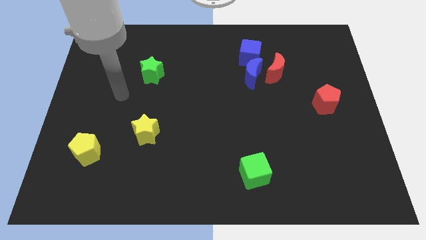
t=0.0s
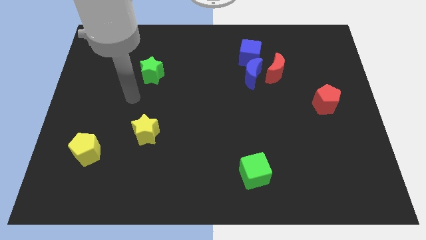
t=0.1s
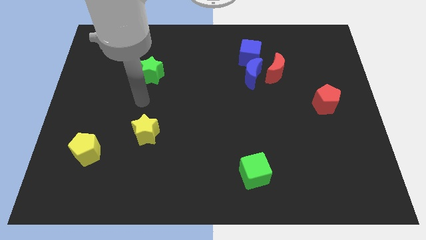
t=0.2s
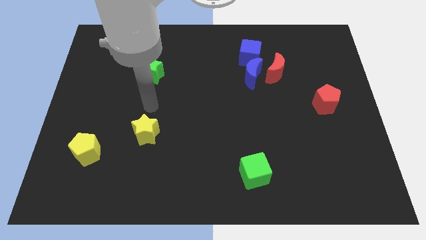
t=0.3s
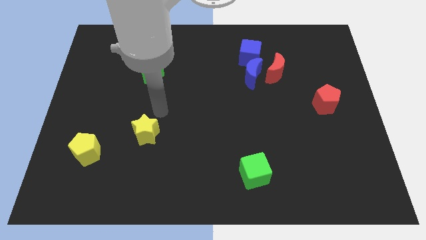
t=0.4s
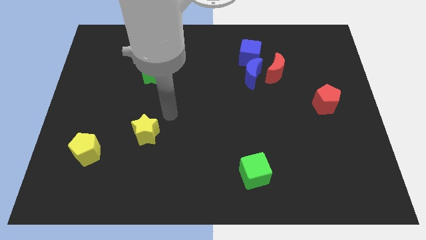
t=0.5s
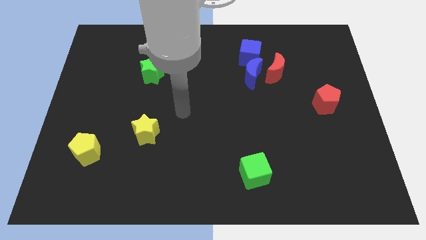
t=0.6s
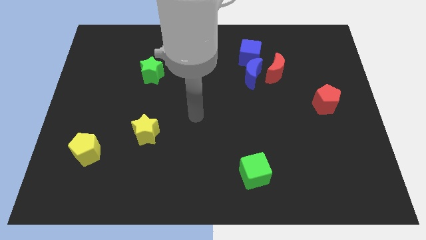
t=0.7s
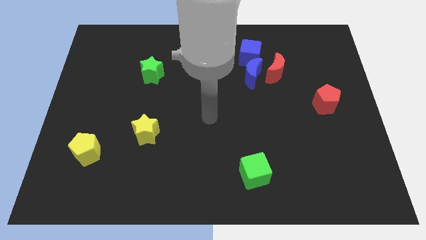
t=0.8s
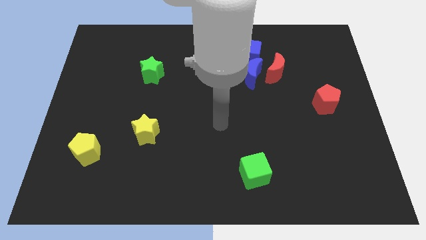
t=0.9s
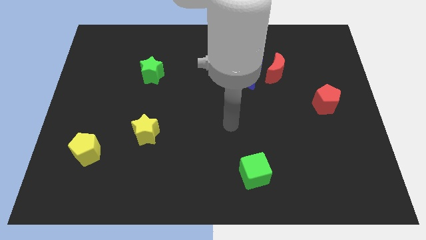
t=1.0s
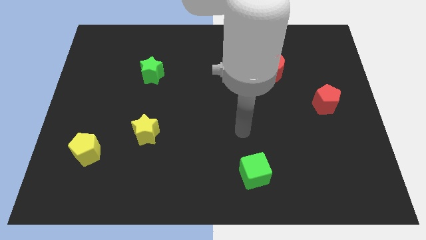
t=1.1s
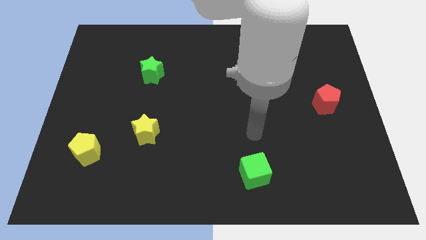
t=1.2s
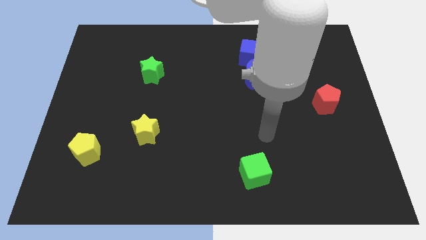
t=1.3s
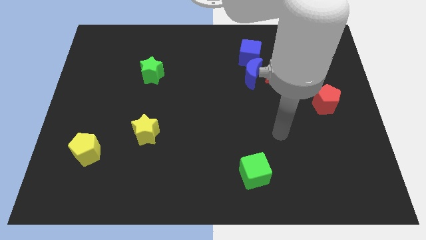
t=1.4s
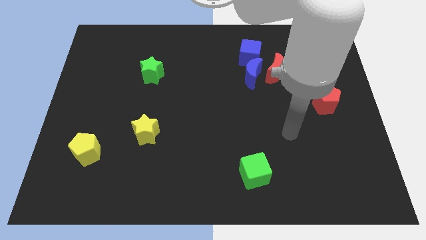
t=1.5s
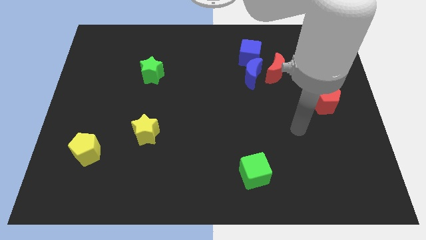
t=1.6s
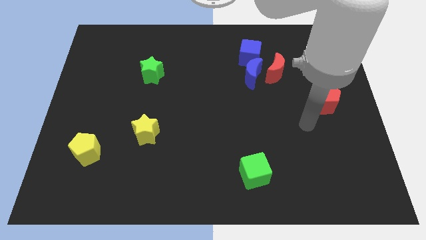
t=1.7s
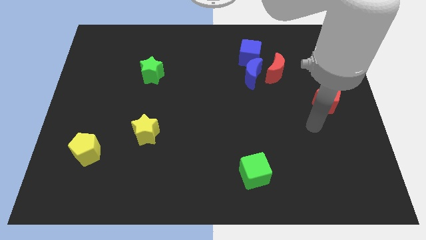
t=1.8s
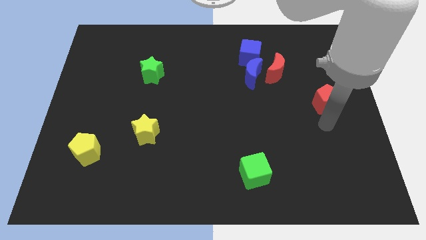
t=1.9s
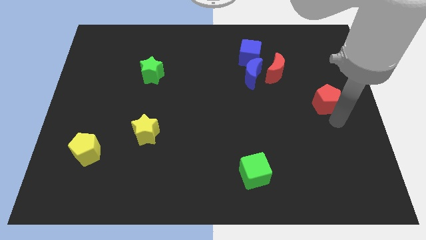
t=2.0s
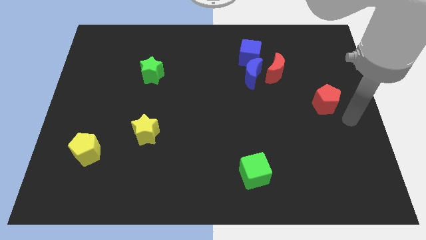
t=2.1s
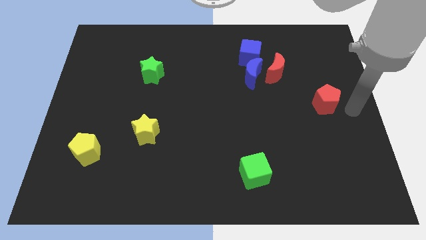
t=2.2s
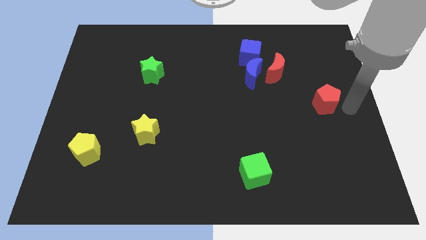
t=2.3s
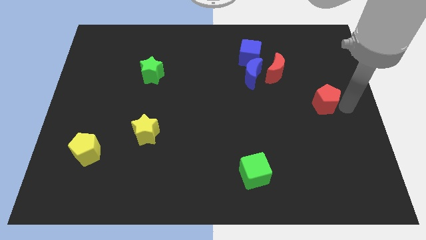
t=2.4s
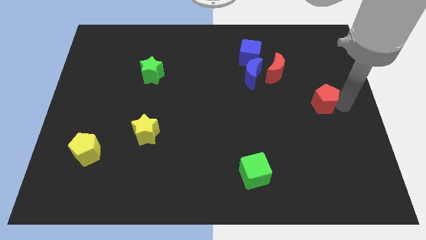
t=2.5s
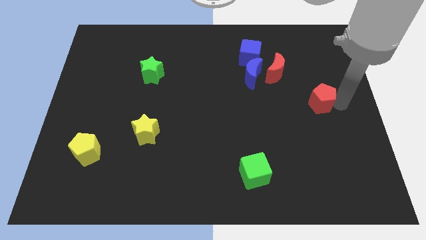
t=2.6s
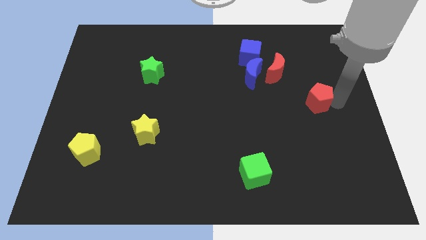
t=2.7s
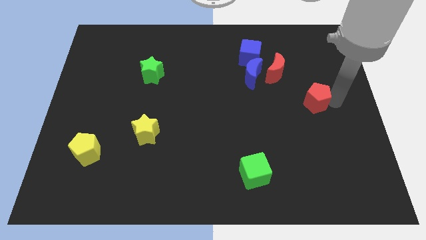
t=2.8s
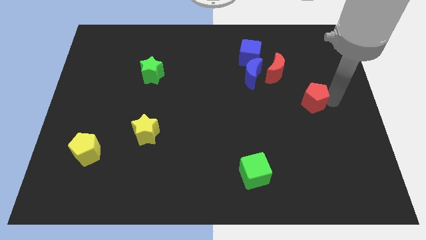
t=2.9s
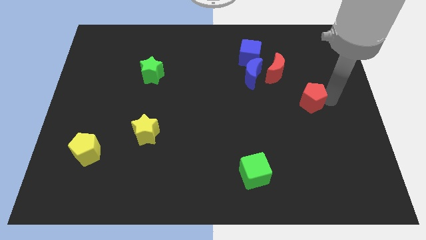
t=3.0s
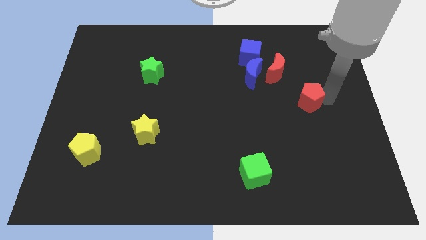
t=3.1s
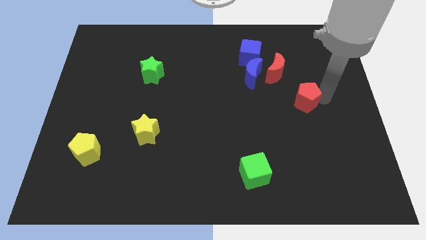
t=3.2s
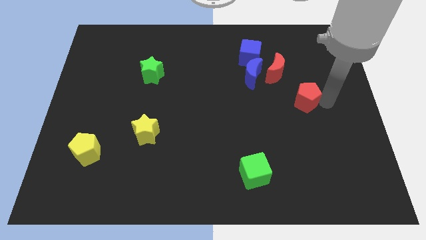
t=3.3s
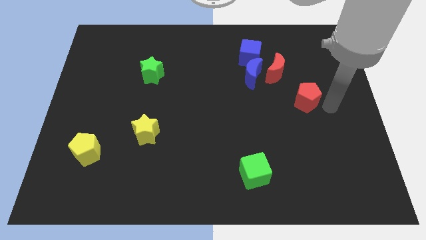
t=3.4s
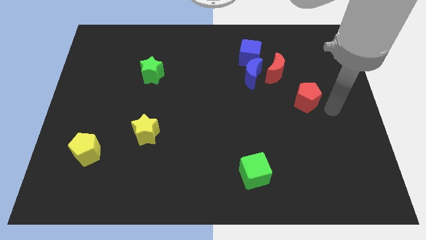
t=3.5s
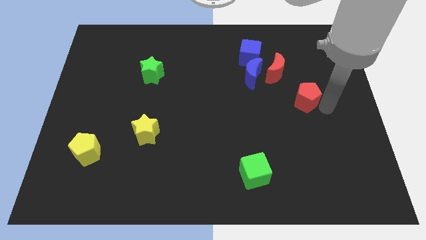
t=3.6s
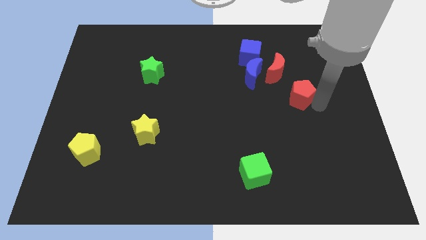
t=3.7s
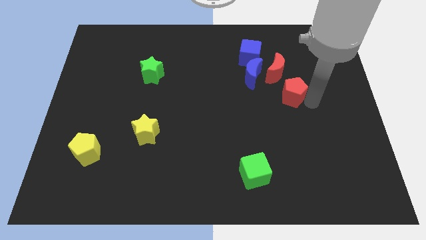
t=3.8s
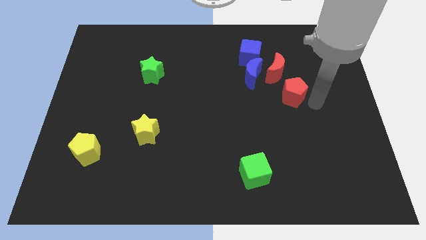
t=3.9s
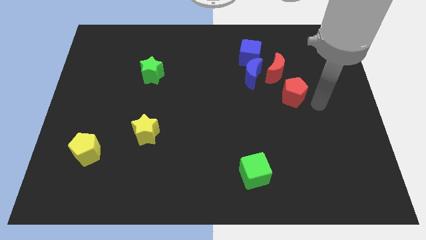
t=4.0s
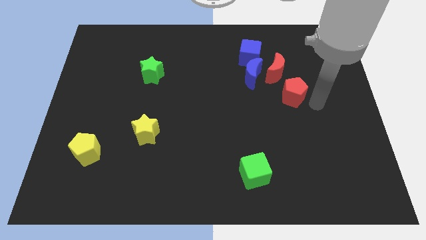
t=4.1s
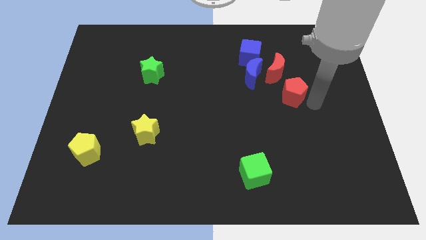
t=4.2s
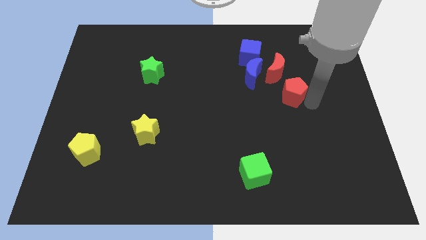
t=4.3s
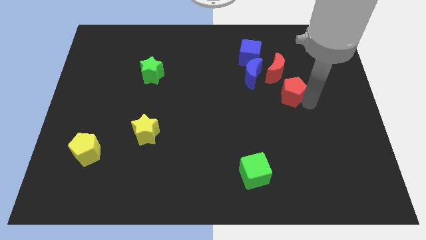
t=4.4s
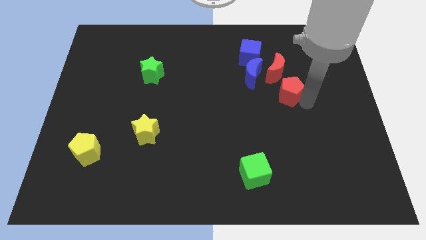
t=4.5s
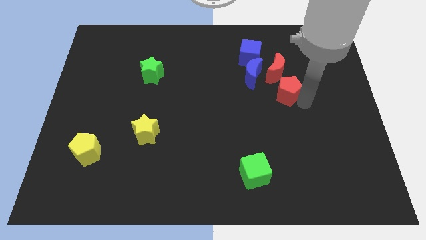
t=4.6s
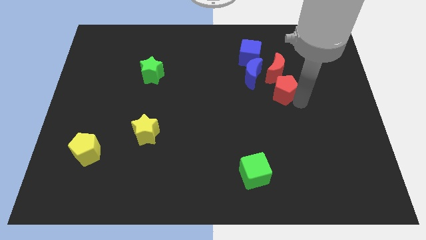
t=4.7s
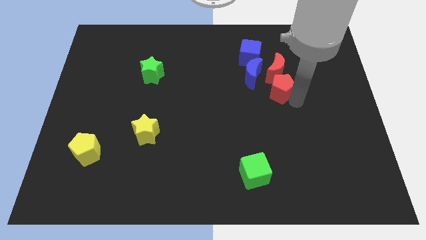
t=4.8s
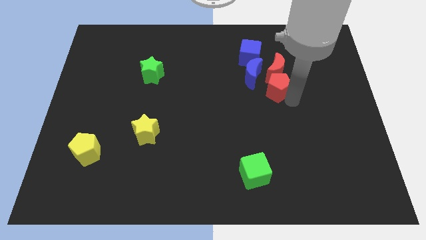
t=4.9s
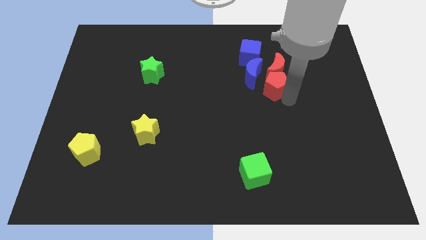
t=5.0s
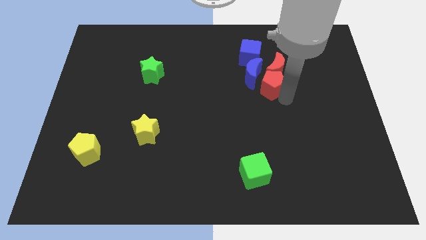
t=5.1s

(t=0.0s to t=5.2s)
put the red pentagon to the blue moon

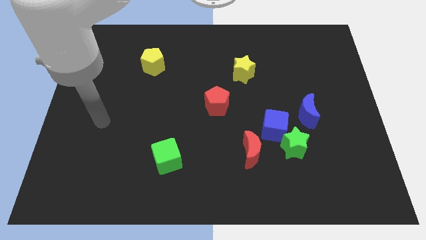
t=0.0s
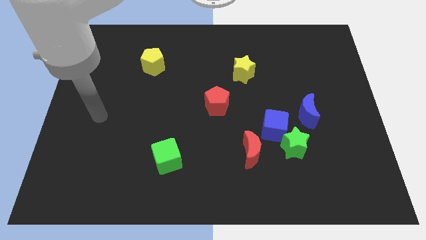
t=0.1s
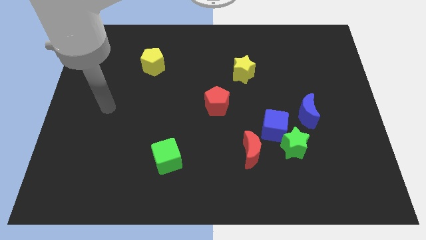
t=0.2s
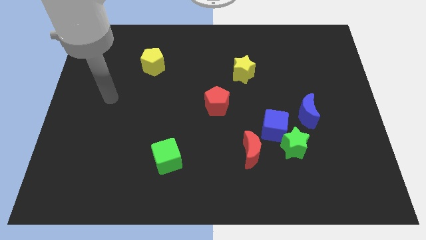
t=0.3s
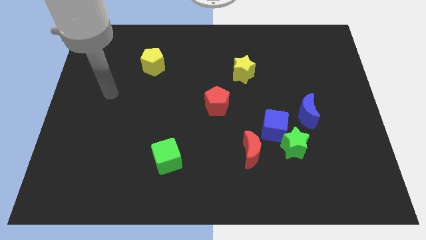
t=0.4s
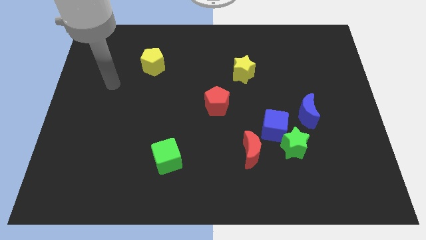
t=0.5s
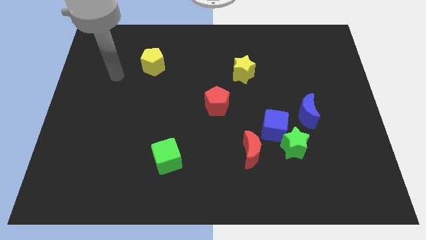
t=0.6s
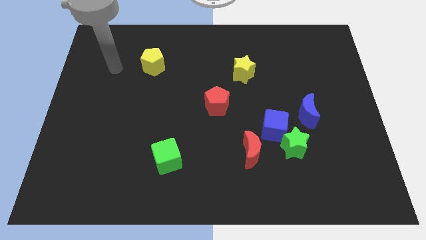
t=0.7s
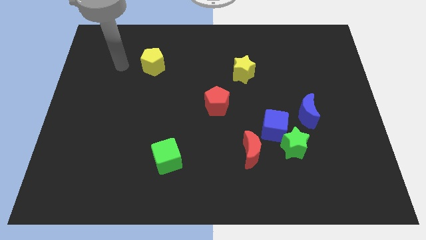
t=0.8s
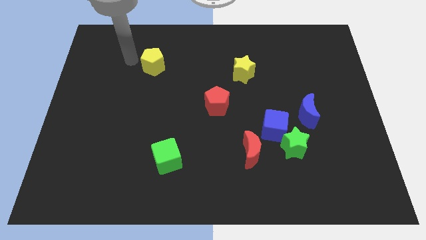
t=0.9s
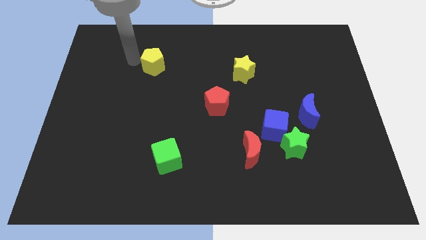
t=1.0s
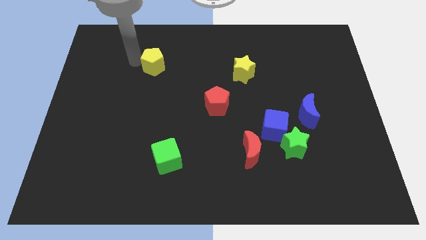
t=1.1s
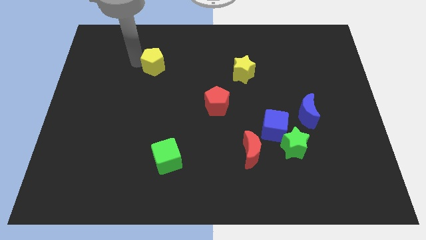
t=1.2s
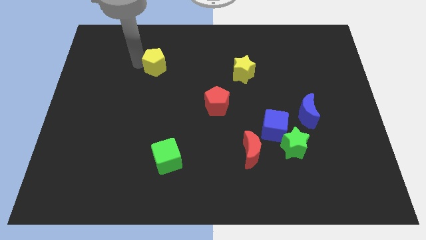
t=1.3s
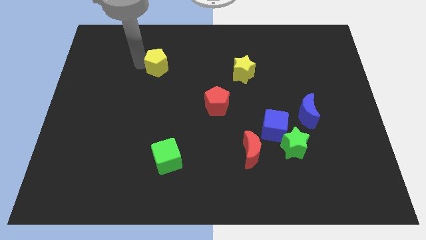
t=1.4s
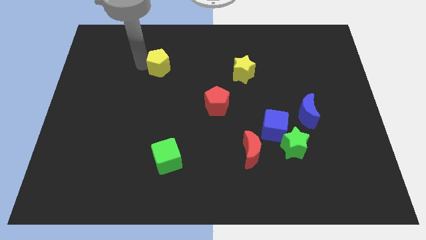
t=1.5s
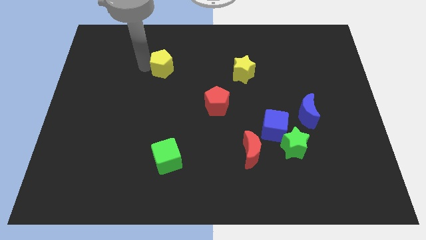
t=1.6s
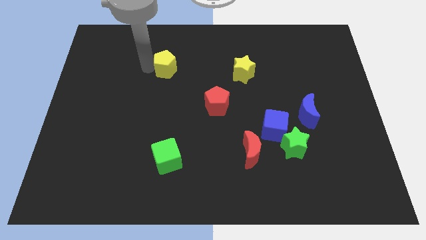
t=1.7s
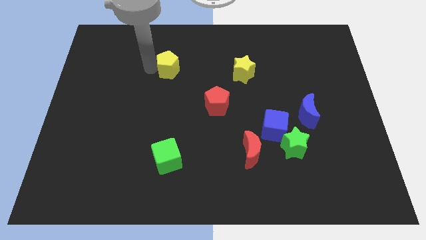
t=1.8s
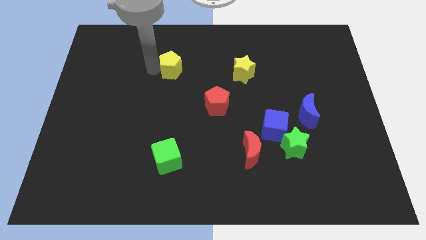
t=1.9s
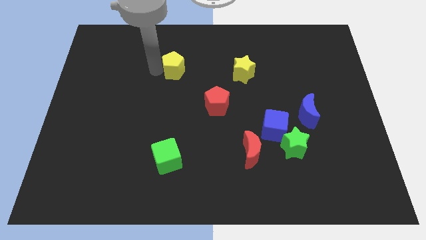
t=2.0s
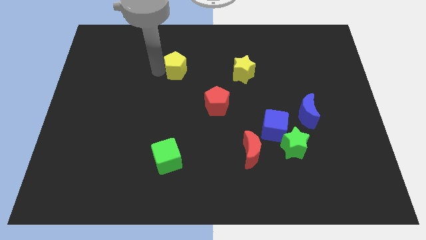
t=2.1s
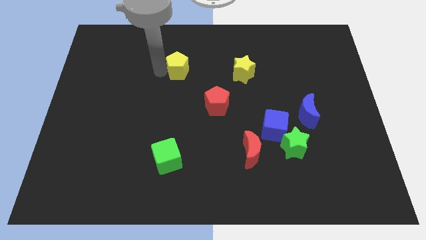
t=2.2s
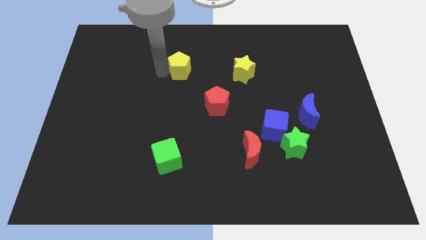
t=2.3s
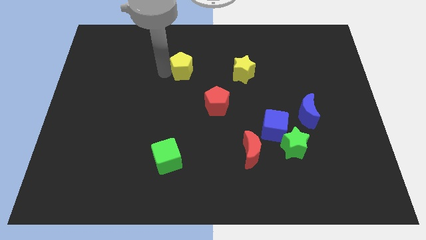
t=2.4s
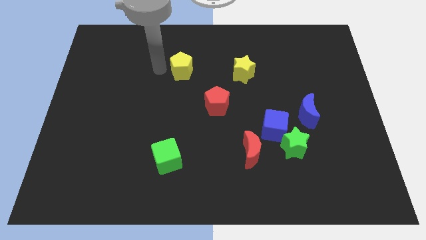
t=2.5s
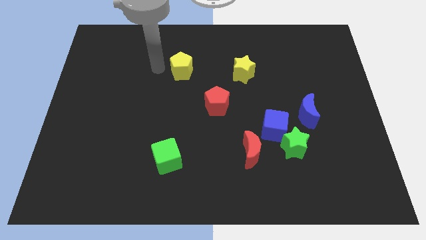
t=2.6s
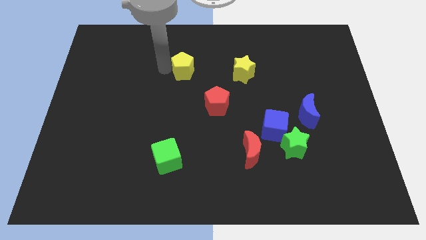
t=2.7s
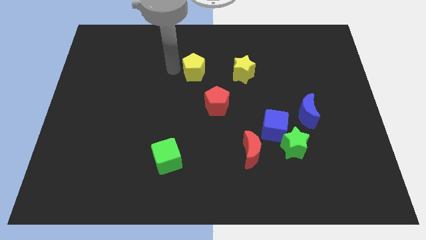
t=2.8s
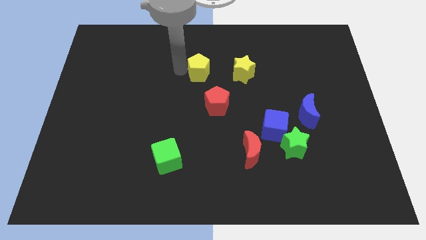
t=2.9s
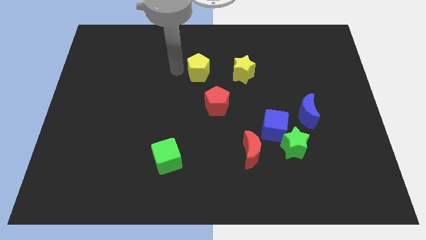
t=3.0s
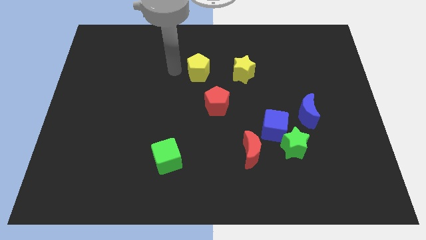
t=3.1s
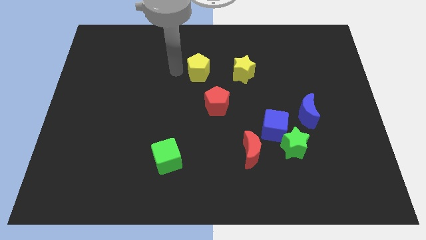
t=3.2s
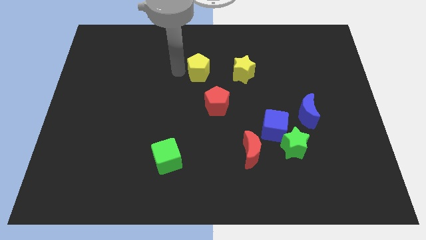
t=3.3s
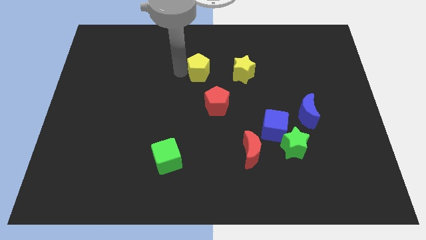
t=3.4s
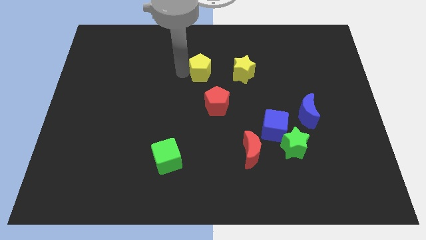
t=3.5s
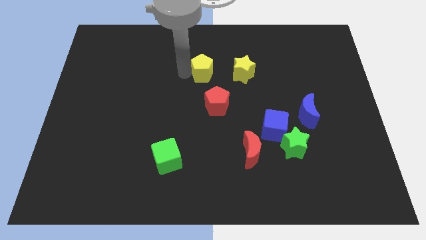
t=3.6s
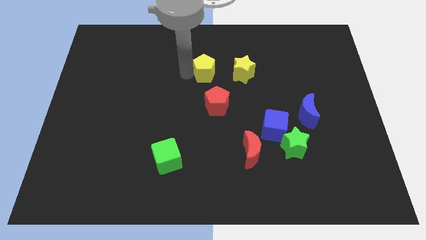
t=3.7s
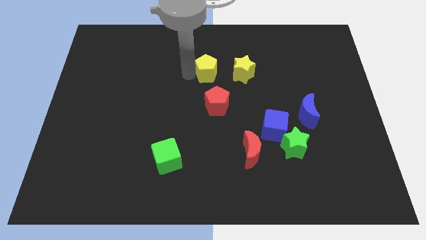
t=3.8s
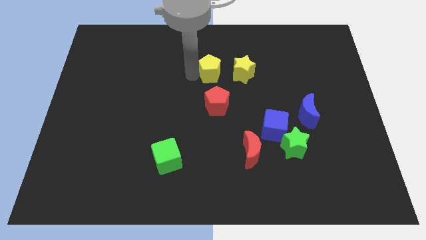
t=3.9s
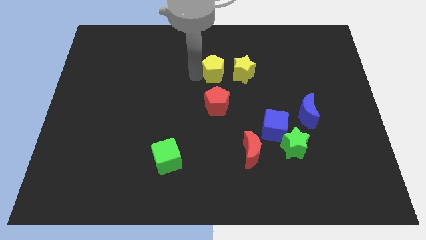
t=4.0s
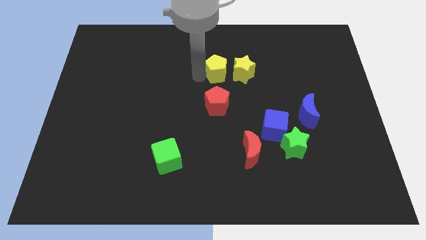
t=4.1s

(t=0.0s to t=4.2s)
put the yellow pentagon next to the yellow star
